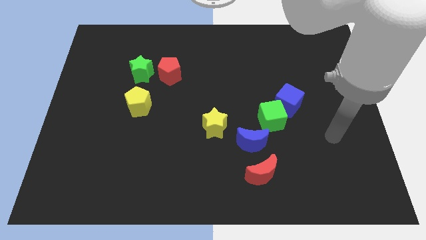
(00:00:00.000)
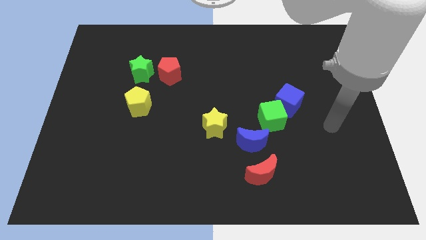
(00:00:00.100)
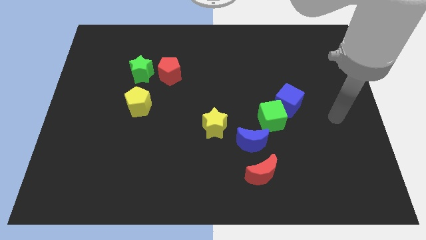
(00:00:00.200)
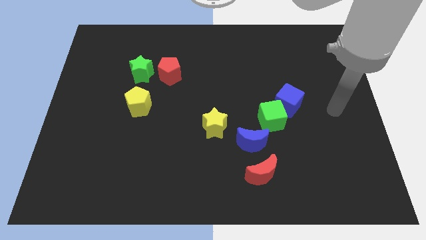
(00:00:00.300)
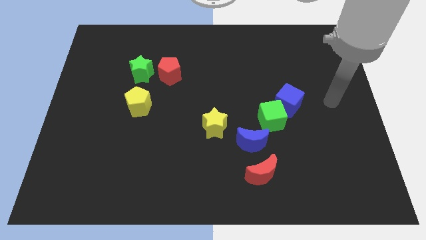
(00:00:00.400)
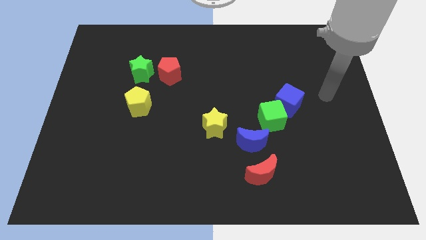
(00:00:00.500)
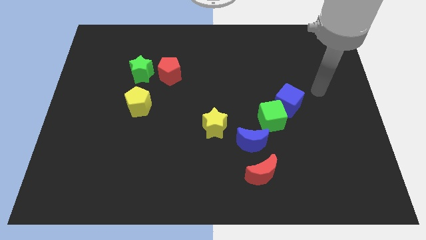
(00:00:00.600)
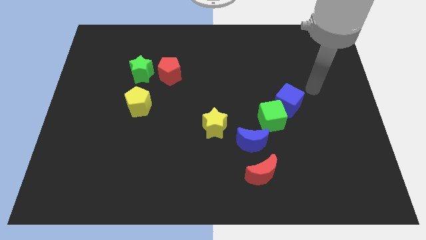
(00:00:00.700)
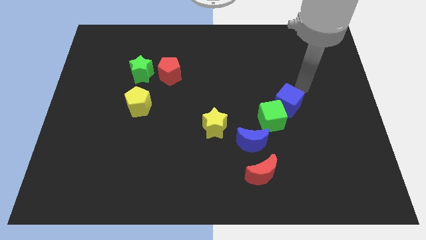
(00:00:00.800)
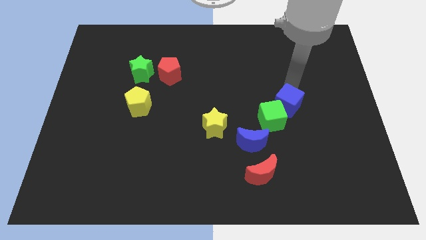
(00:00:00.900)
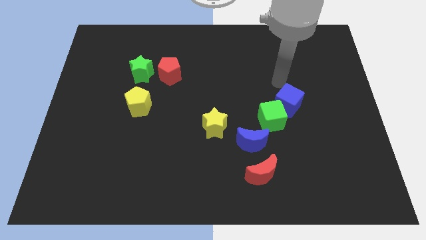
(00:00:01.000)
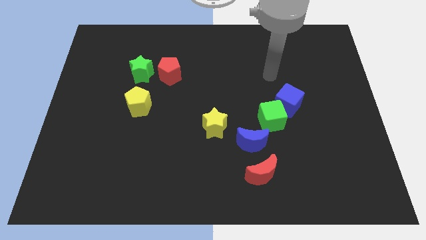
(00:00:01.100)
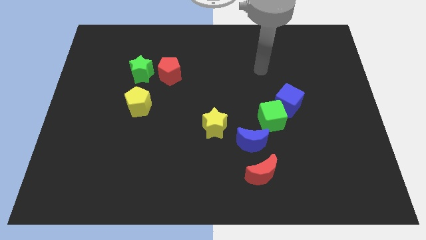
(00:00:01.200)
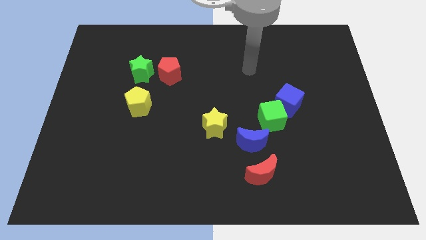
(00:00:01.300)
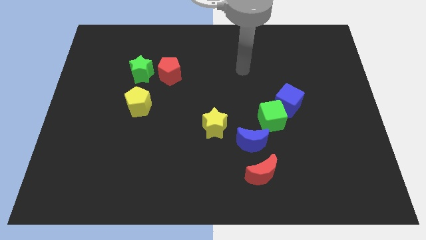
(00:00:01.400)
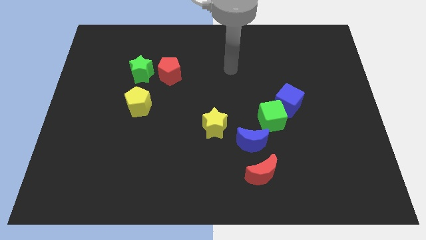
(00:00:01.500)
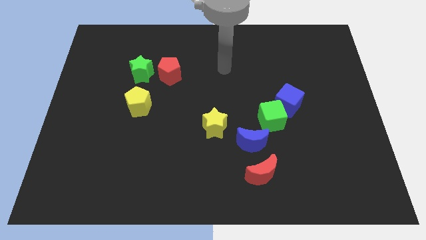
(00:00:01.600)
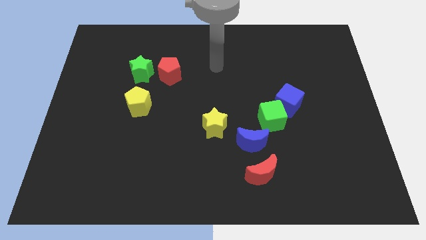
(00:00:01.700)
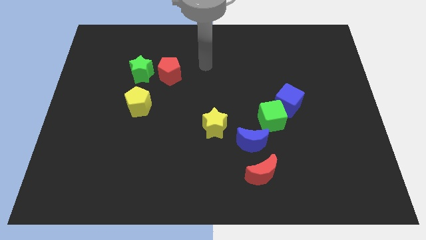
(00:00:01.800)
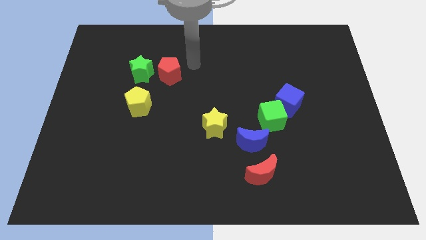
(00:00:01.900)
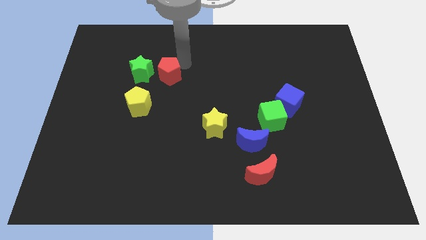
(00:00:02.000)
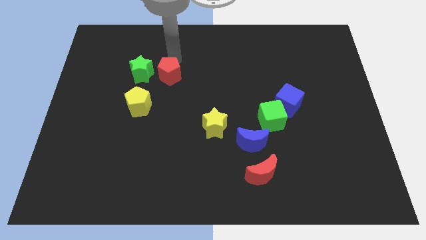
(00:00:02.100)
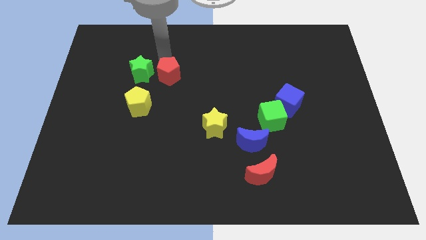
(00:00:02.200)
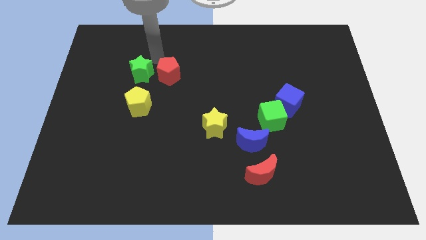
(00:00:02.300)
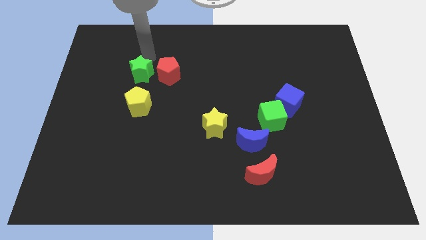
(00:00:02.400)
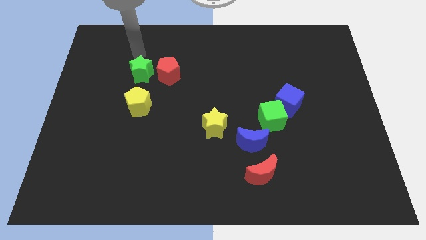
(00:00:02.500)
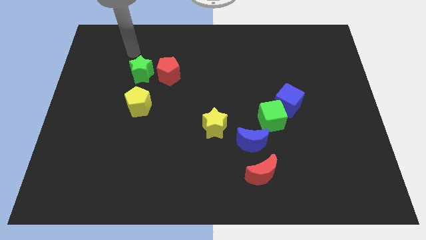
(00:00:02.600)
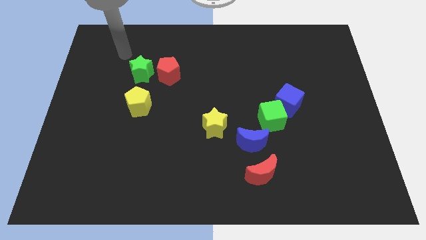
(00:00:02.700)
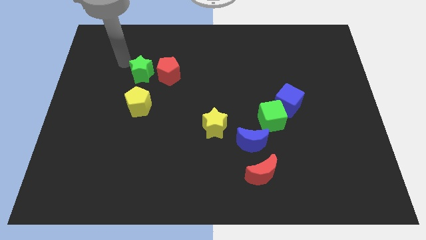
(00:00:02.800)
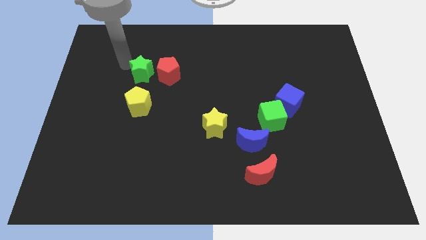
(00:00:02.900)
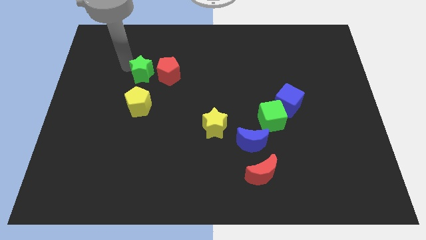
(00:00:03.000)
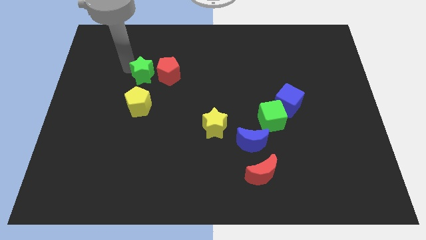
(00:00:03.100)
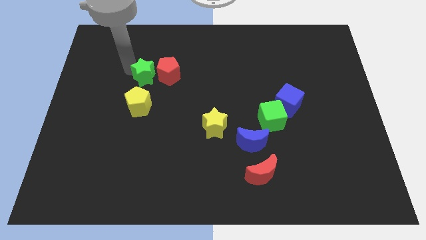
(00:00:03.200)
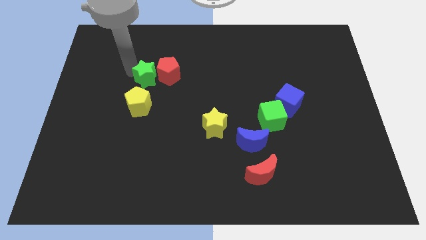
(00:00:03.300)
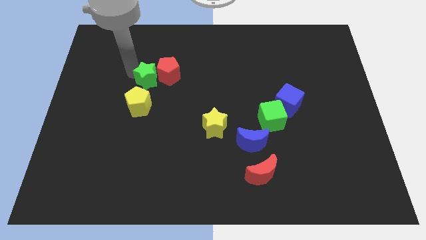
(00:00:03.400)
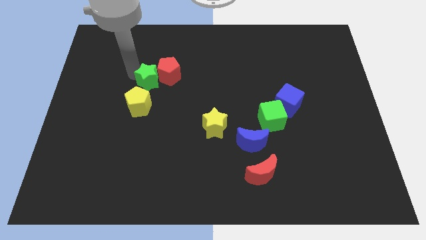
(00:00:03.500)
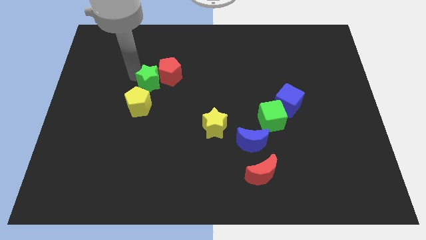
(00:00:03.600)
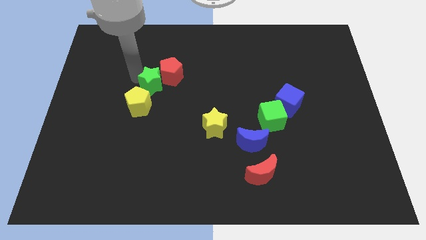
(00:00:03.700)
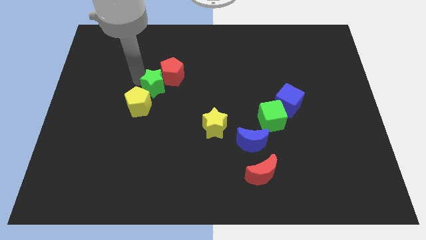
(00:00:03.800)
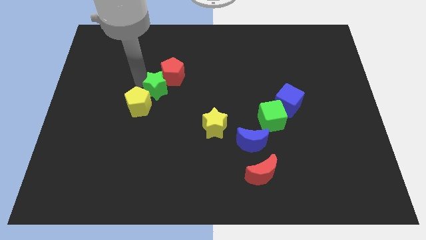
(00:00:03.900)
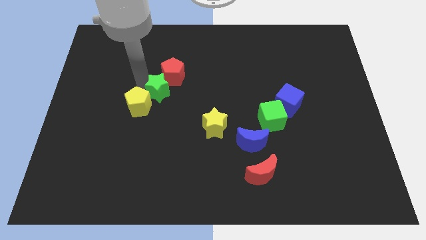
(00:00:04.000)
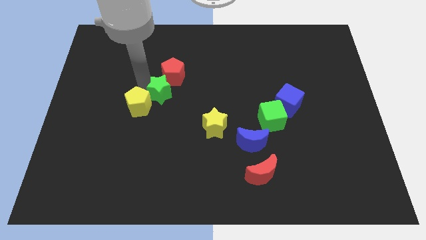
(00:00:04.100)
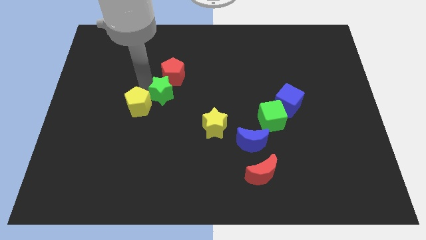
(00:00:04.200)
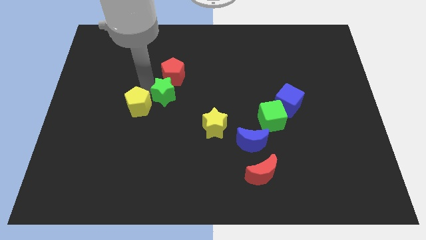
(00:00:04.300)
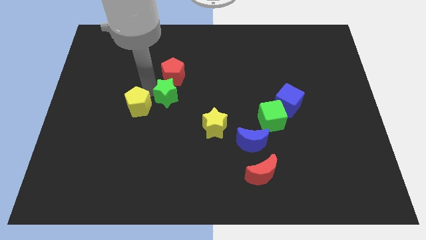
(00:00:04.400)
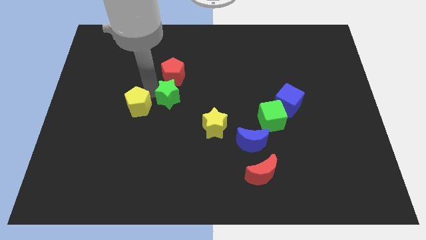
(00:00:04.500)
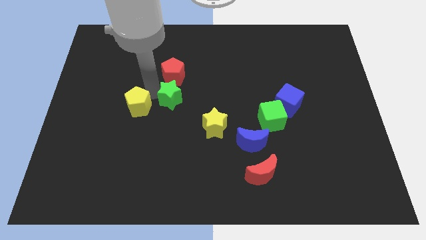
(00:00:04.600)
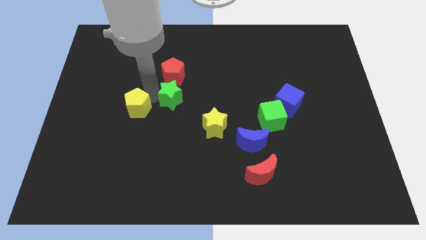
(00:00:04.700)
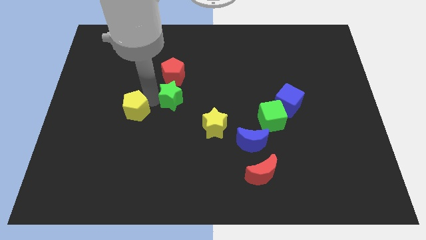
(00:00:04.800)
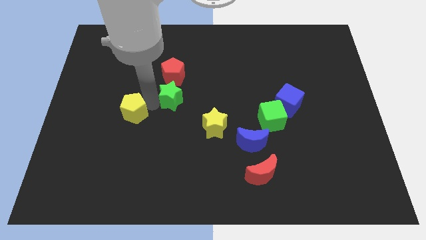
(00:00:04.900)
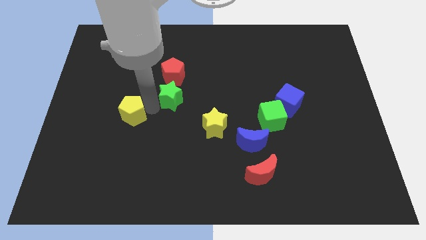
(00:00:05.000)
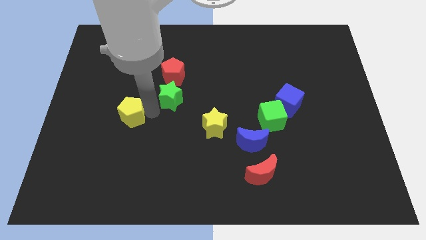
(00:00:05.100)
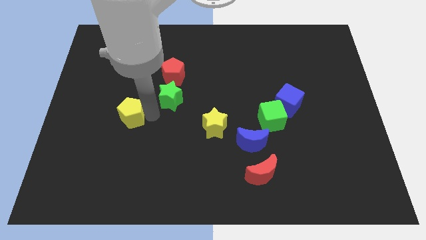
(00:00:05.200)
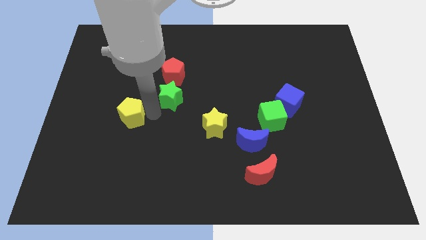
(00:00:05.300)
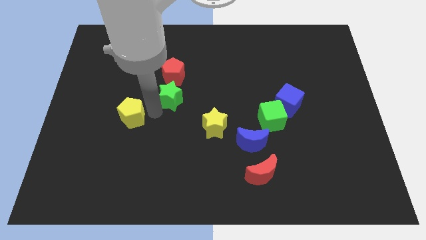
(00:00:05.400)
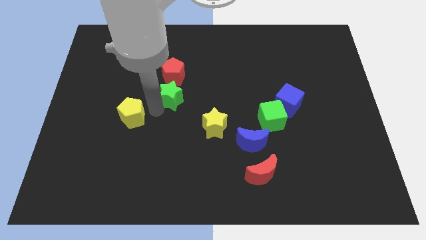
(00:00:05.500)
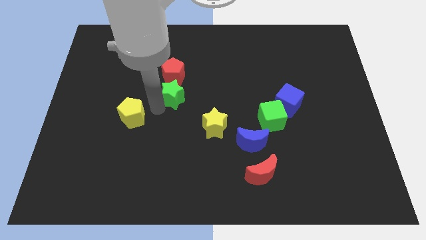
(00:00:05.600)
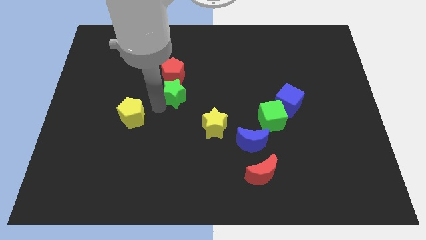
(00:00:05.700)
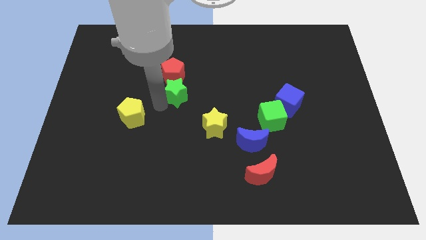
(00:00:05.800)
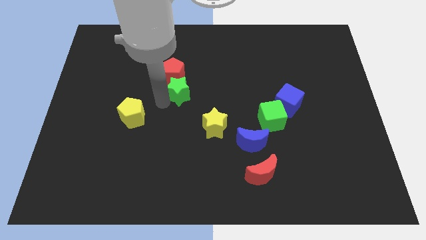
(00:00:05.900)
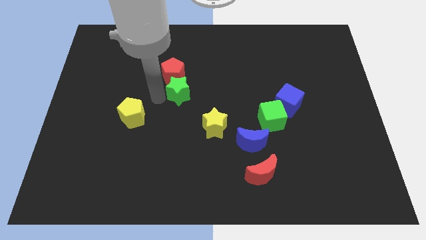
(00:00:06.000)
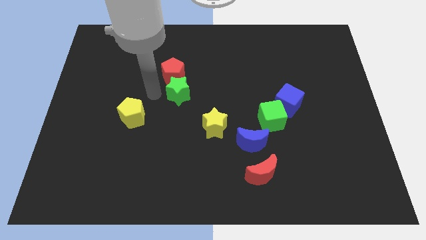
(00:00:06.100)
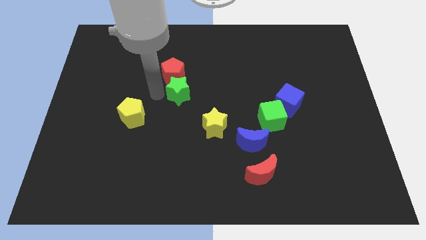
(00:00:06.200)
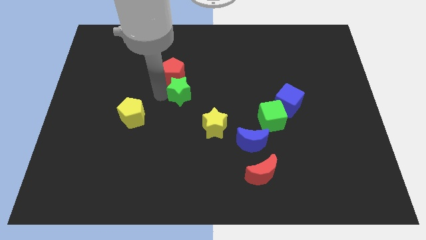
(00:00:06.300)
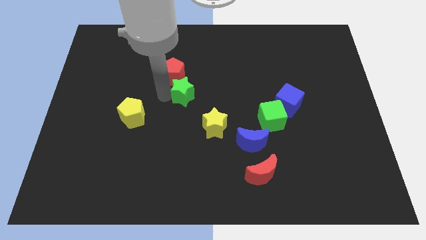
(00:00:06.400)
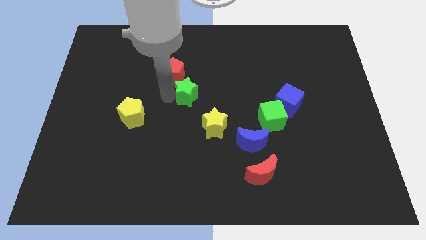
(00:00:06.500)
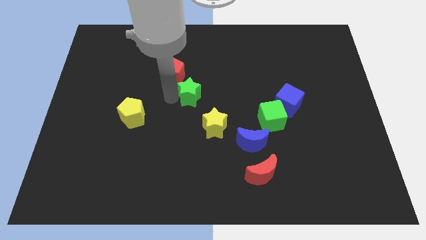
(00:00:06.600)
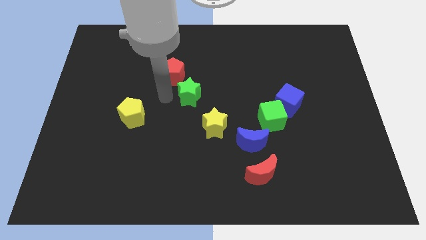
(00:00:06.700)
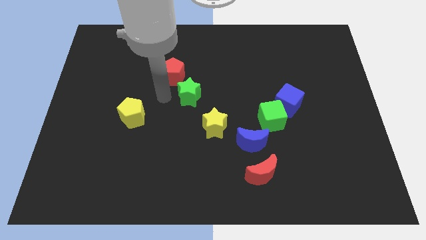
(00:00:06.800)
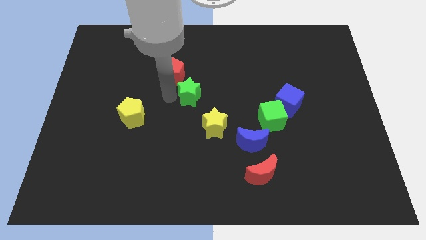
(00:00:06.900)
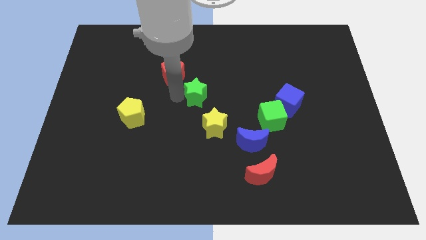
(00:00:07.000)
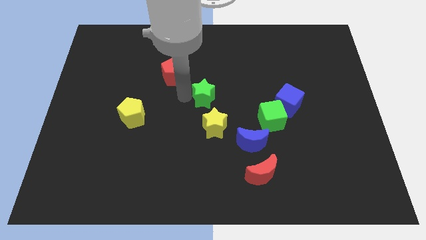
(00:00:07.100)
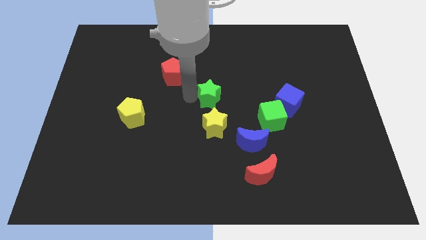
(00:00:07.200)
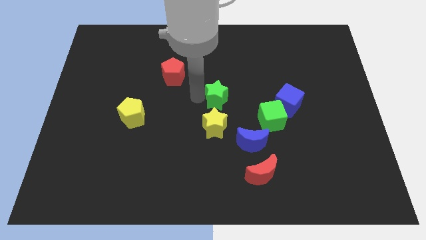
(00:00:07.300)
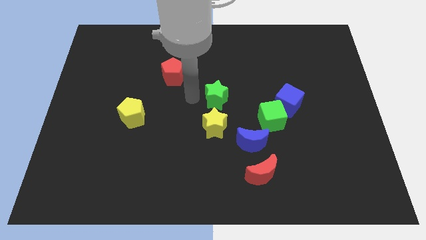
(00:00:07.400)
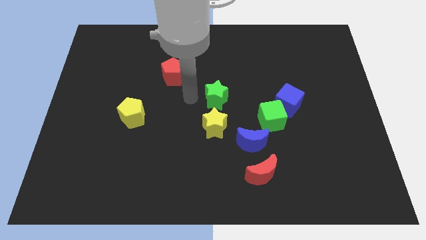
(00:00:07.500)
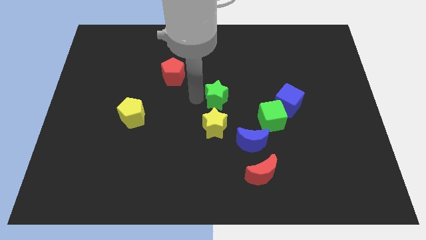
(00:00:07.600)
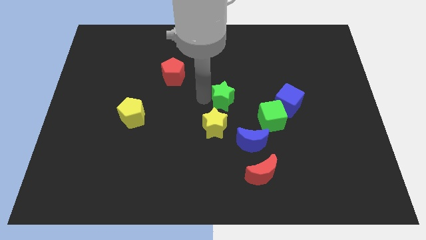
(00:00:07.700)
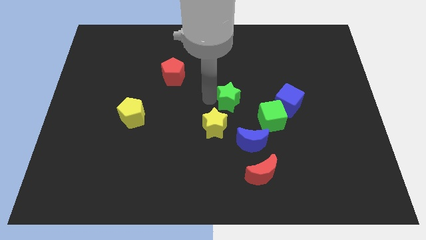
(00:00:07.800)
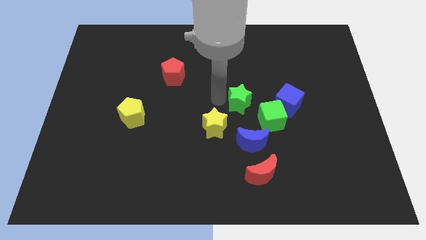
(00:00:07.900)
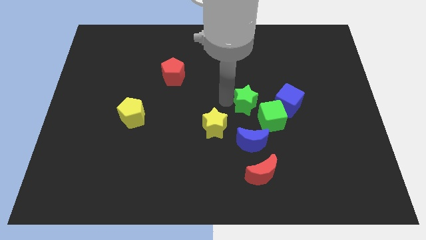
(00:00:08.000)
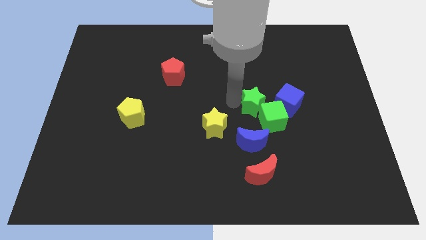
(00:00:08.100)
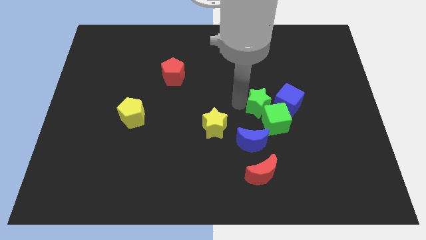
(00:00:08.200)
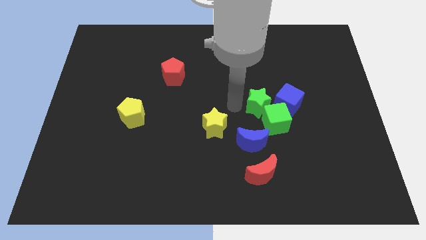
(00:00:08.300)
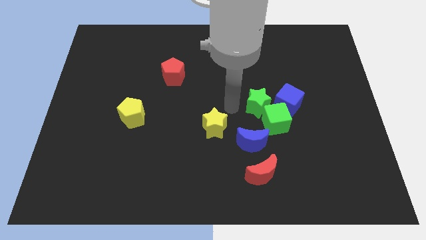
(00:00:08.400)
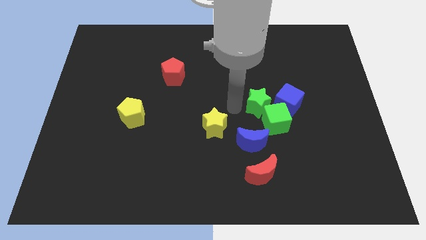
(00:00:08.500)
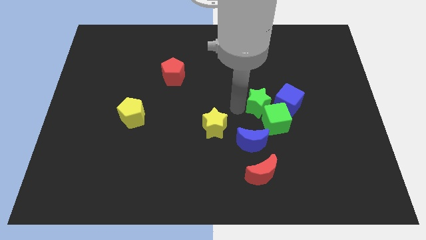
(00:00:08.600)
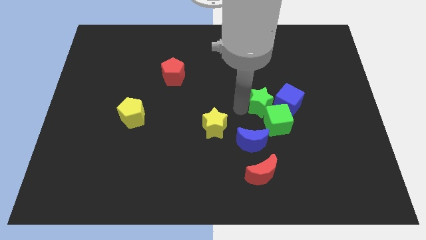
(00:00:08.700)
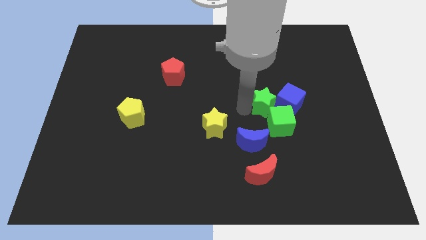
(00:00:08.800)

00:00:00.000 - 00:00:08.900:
push the green star to the blue cube
